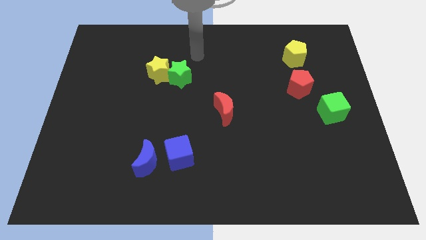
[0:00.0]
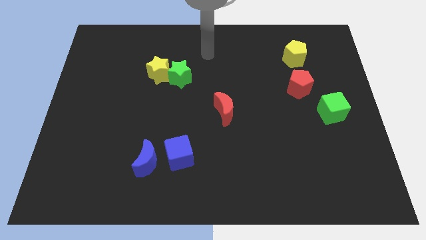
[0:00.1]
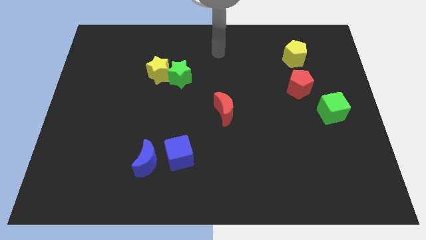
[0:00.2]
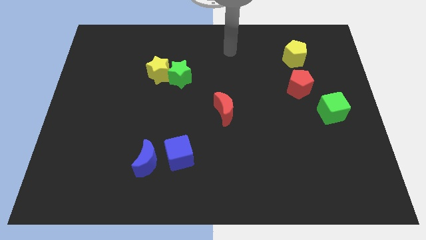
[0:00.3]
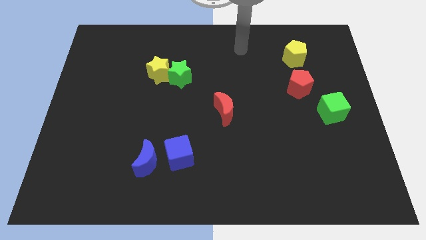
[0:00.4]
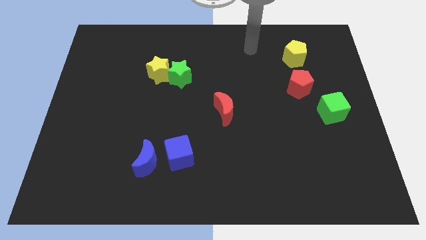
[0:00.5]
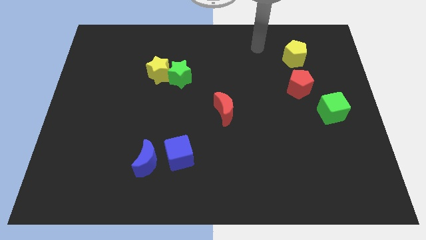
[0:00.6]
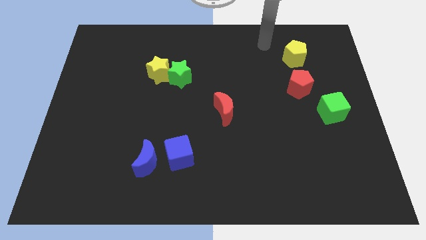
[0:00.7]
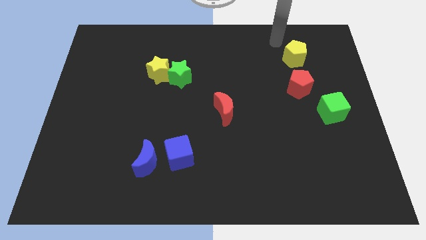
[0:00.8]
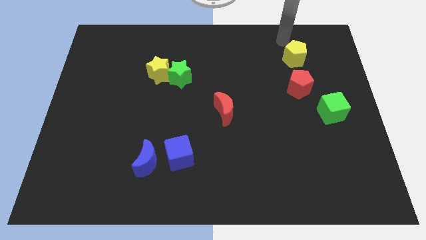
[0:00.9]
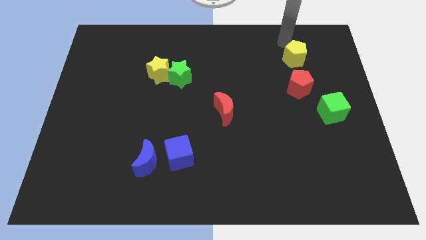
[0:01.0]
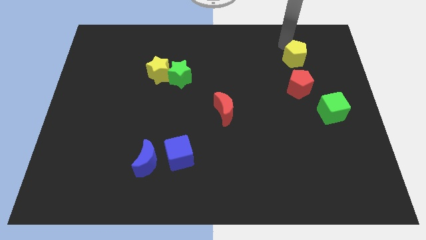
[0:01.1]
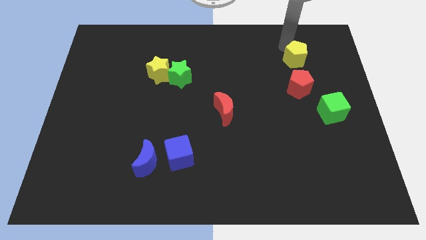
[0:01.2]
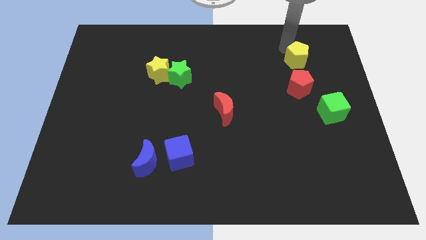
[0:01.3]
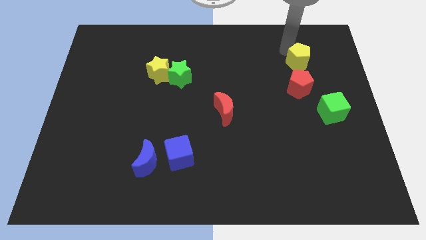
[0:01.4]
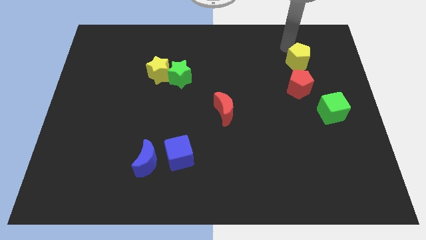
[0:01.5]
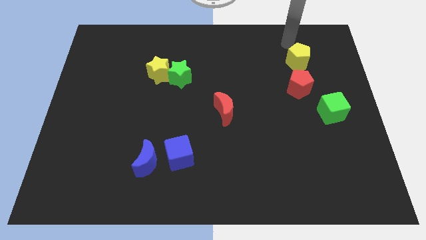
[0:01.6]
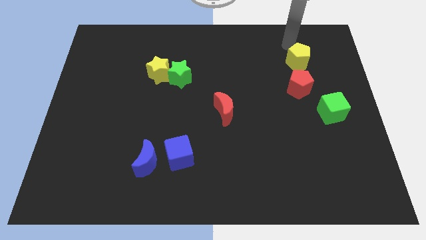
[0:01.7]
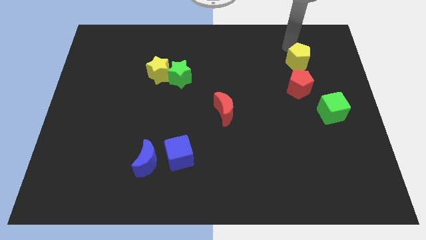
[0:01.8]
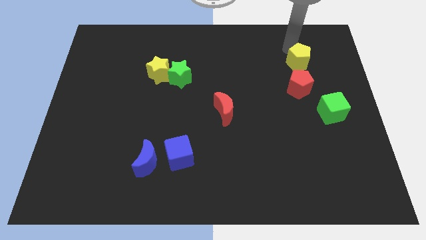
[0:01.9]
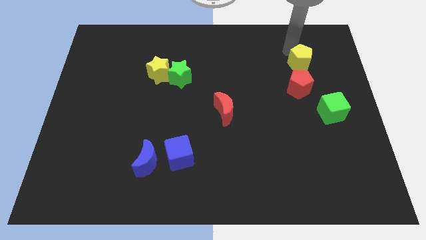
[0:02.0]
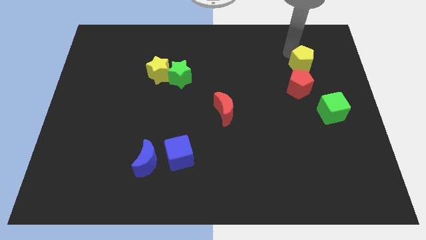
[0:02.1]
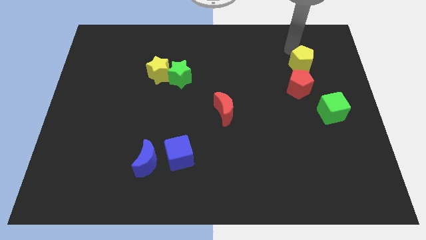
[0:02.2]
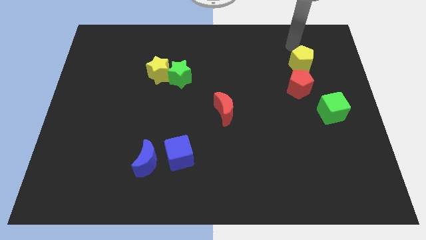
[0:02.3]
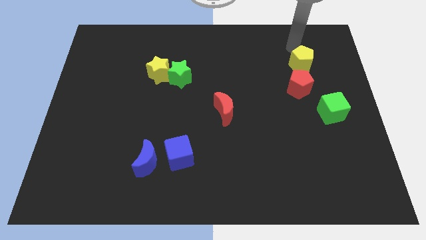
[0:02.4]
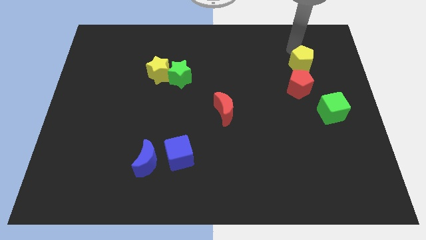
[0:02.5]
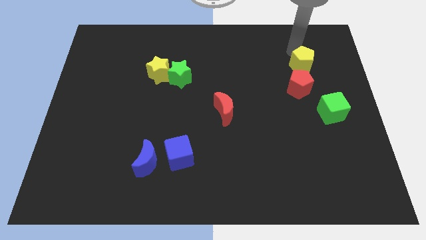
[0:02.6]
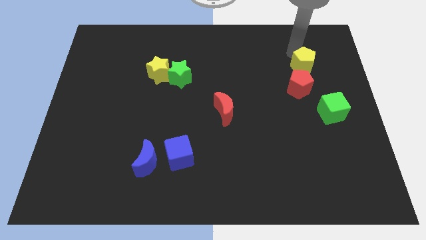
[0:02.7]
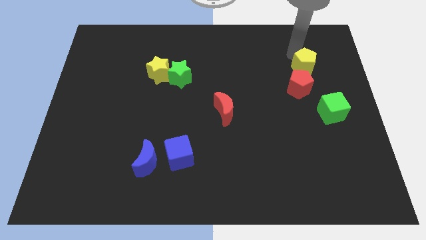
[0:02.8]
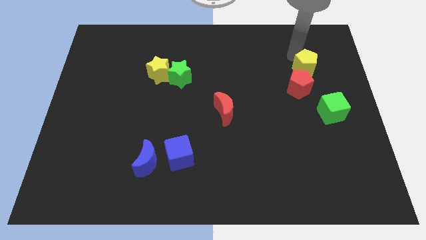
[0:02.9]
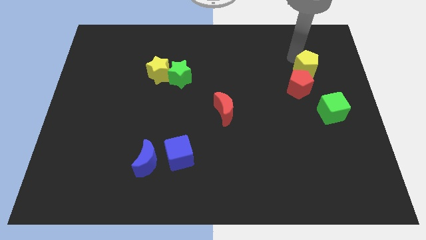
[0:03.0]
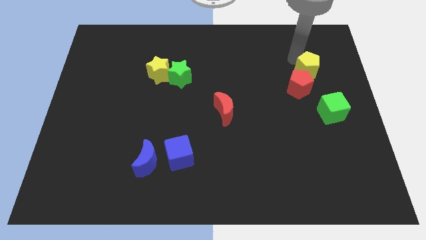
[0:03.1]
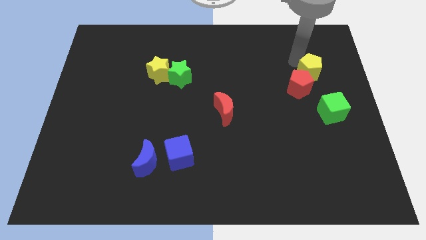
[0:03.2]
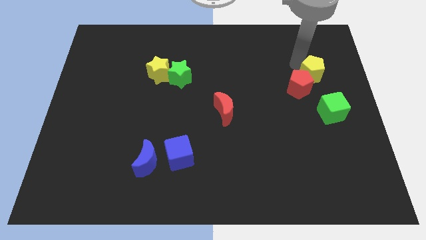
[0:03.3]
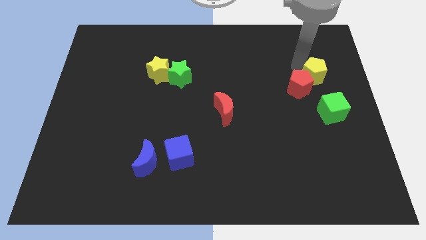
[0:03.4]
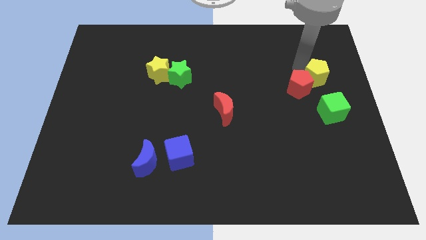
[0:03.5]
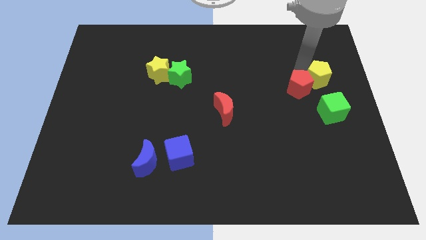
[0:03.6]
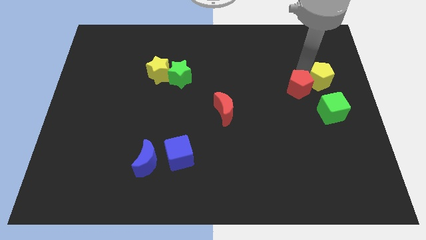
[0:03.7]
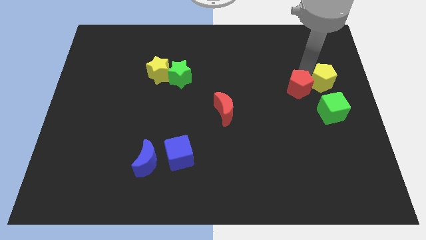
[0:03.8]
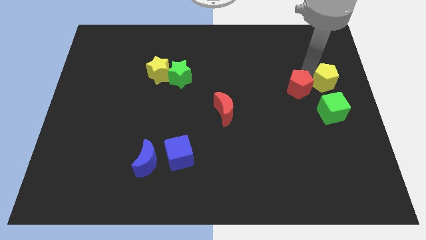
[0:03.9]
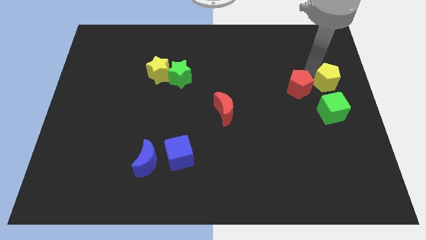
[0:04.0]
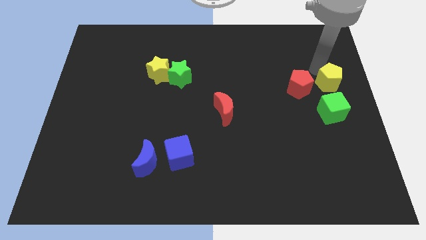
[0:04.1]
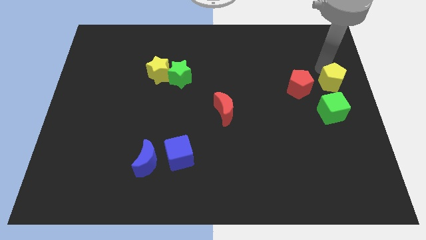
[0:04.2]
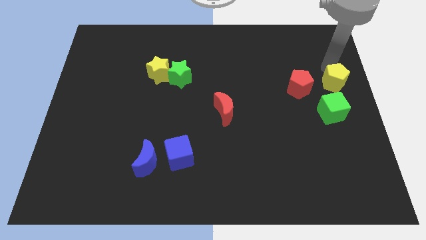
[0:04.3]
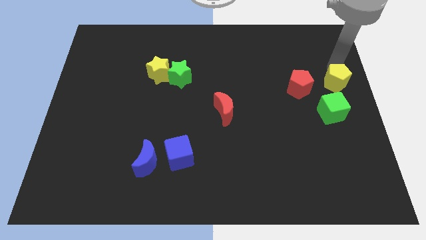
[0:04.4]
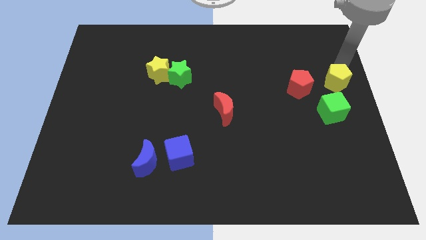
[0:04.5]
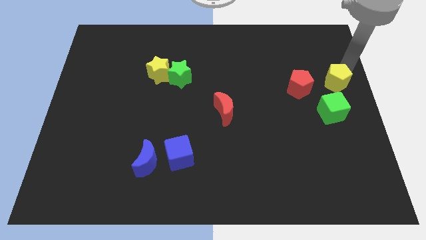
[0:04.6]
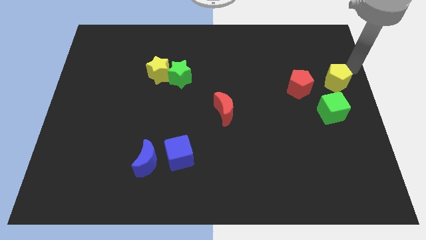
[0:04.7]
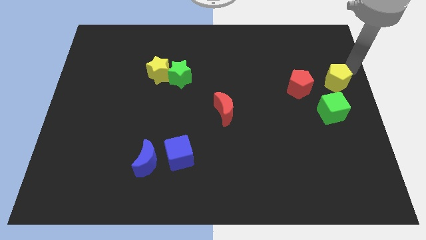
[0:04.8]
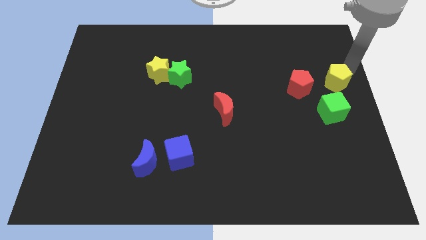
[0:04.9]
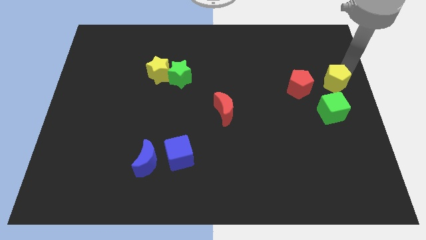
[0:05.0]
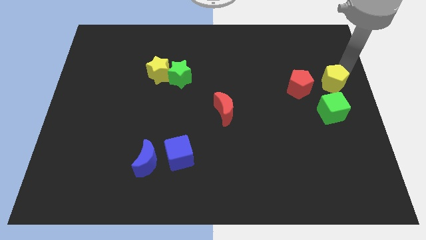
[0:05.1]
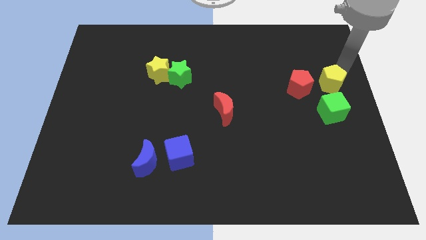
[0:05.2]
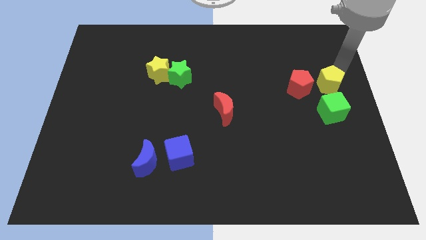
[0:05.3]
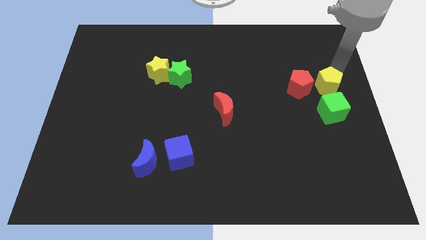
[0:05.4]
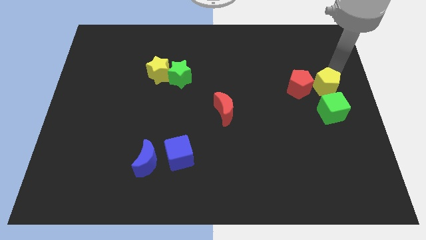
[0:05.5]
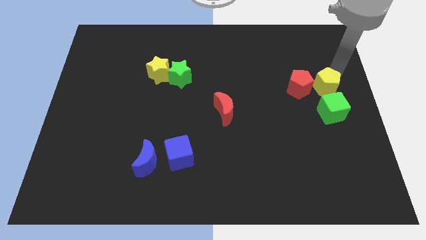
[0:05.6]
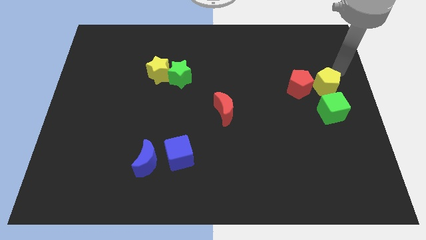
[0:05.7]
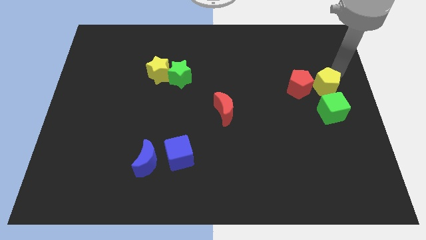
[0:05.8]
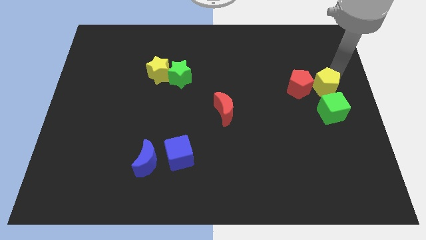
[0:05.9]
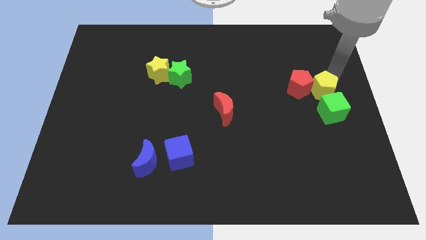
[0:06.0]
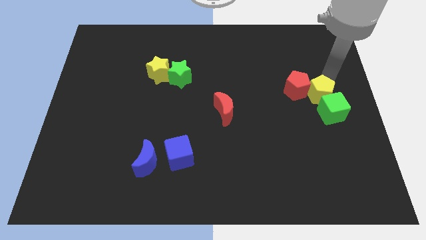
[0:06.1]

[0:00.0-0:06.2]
push the yellow pentagon close to the green cube

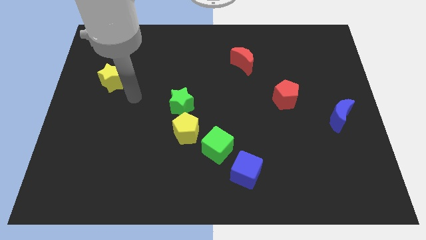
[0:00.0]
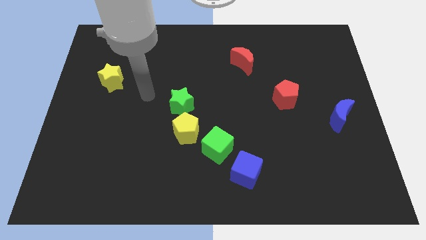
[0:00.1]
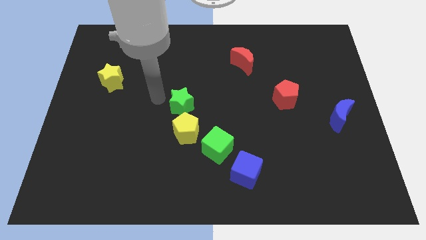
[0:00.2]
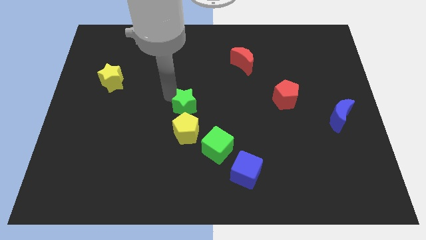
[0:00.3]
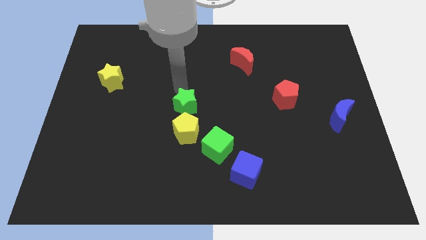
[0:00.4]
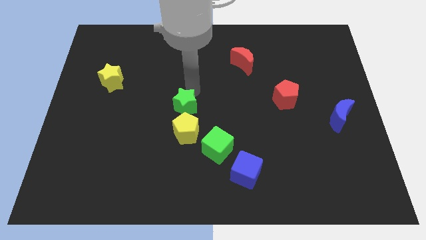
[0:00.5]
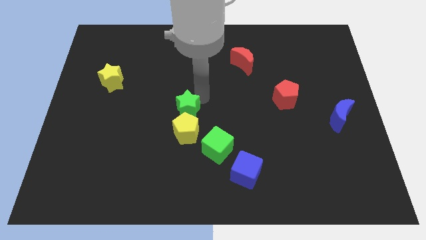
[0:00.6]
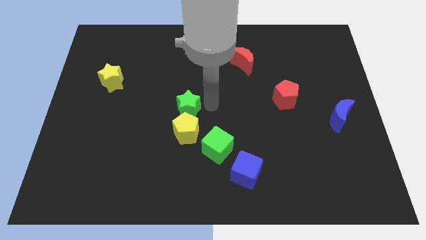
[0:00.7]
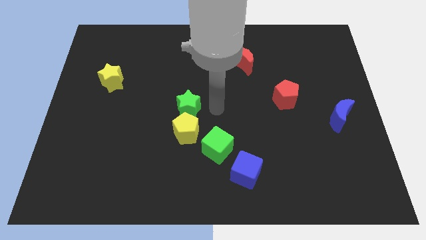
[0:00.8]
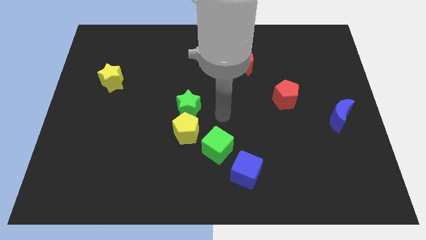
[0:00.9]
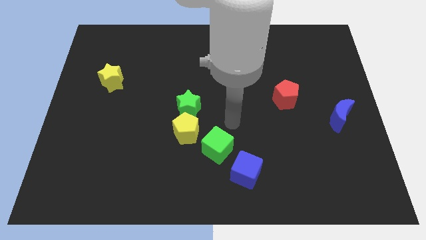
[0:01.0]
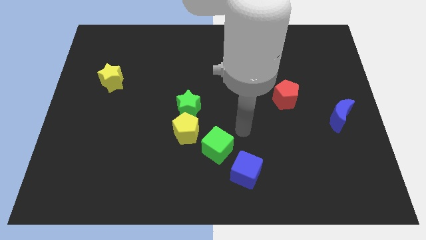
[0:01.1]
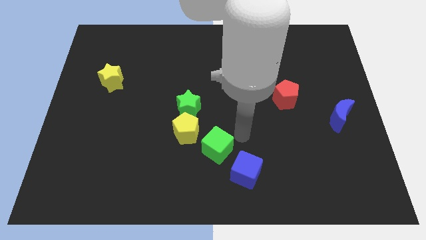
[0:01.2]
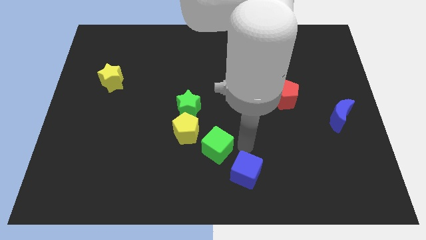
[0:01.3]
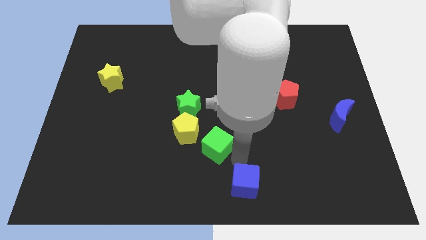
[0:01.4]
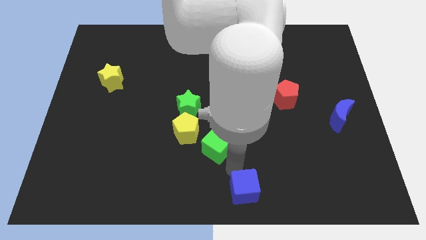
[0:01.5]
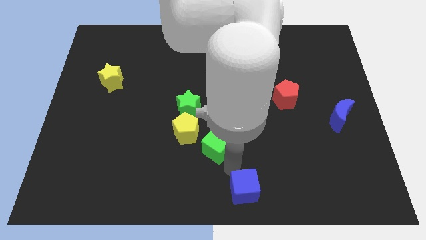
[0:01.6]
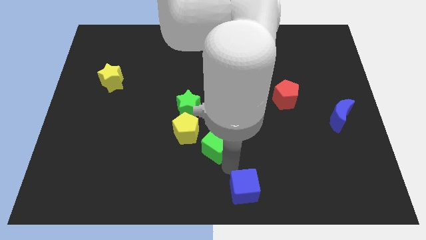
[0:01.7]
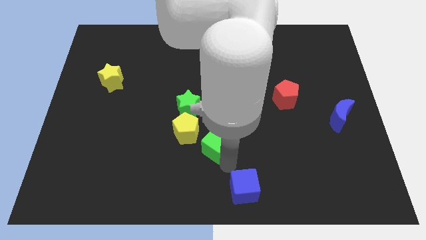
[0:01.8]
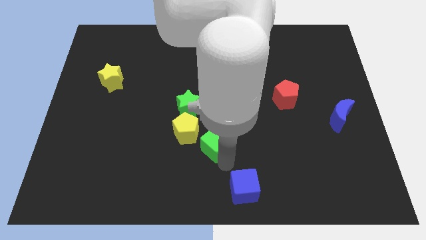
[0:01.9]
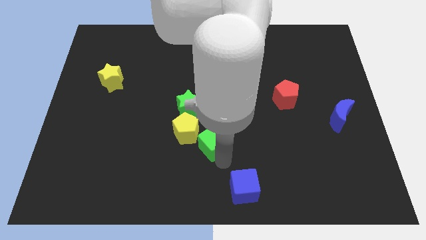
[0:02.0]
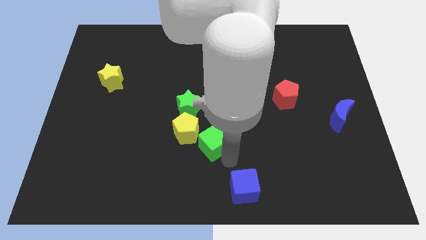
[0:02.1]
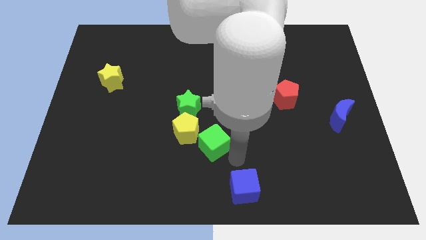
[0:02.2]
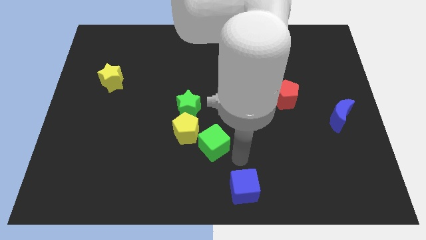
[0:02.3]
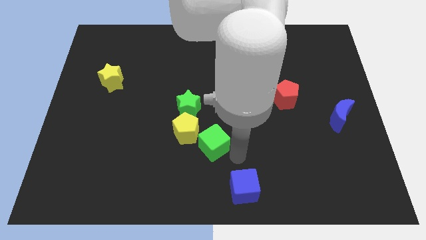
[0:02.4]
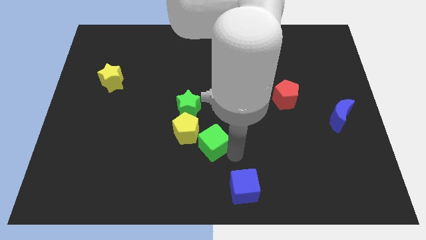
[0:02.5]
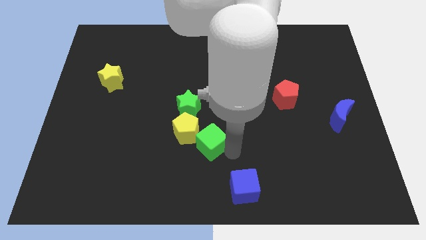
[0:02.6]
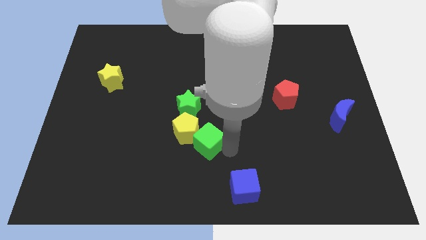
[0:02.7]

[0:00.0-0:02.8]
push the green cube close to the yellow pentagon
